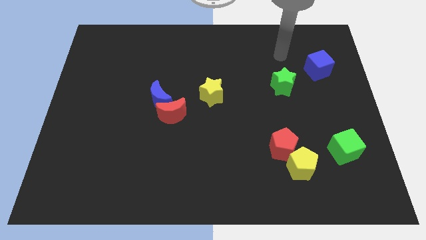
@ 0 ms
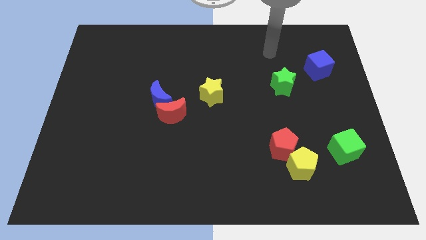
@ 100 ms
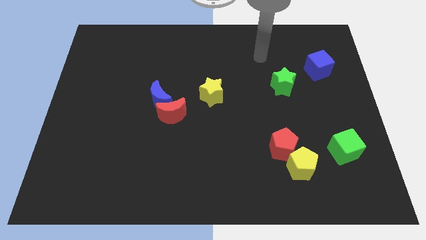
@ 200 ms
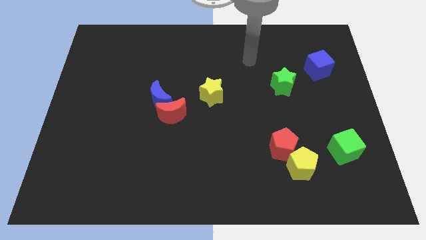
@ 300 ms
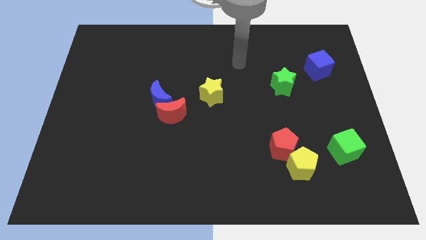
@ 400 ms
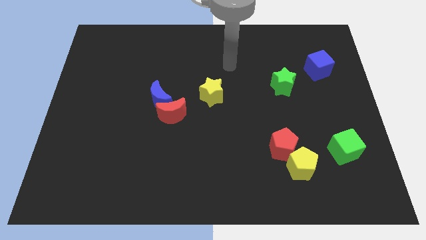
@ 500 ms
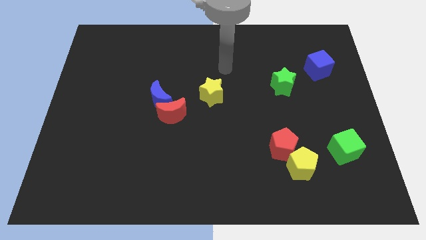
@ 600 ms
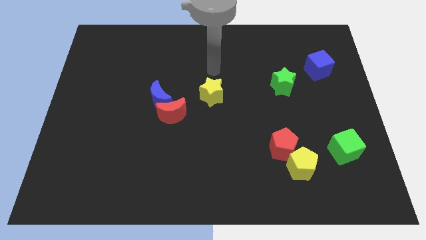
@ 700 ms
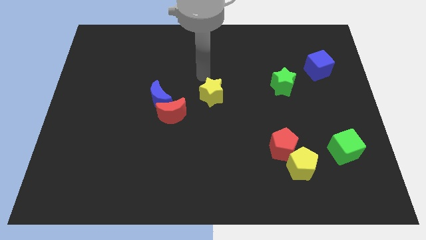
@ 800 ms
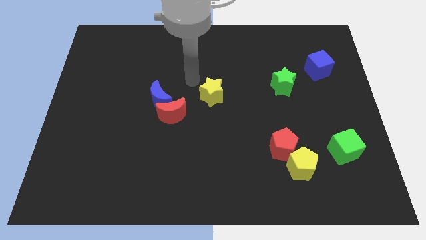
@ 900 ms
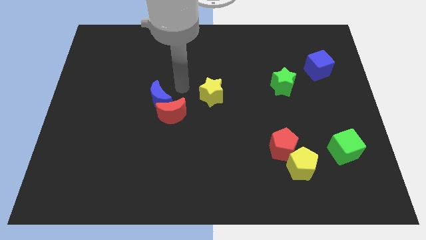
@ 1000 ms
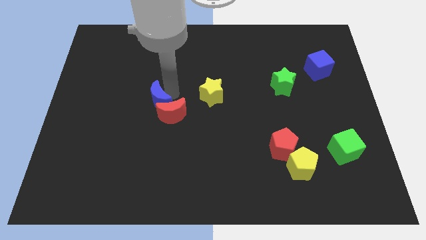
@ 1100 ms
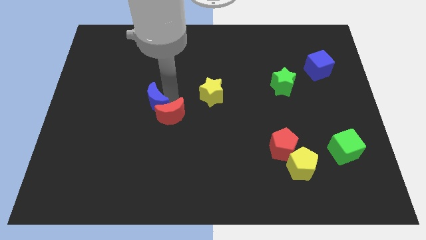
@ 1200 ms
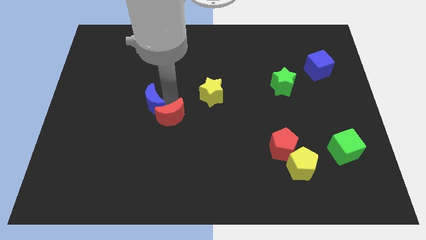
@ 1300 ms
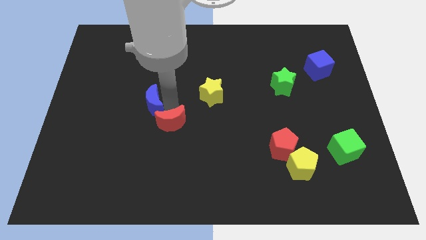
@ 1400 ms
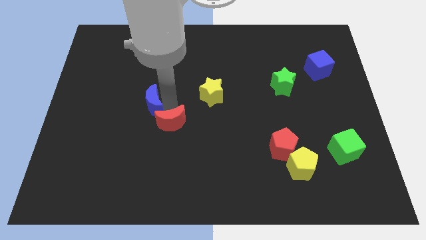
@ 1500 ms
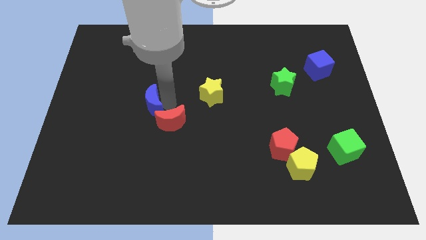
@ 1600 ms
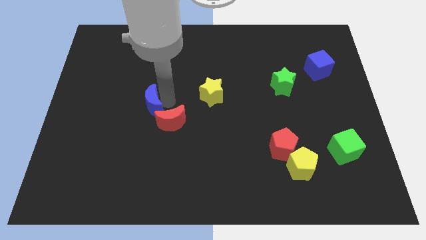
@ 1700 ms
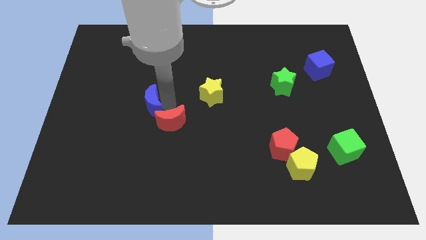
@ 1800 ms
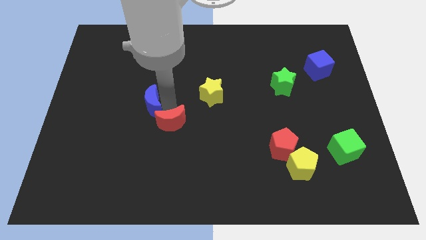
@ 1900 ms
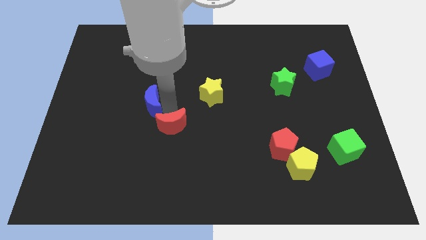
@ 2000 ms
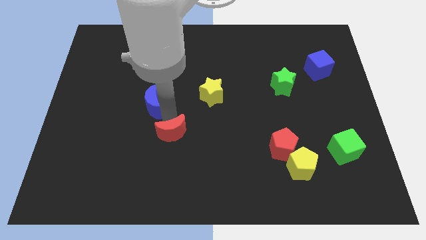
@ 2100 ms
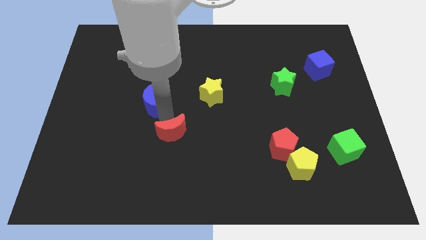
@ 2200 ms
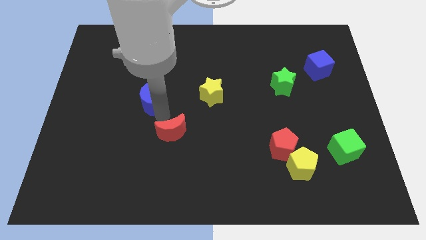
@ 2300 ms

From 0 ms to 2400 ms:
move the red moon away from the blue moon

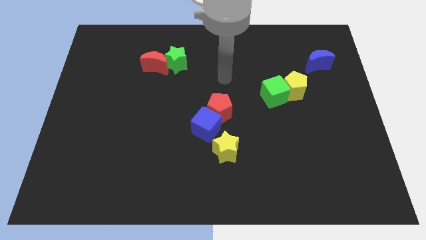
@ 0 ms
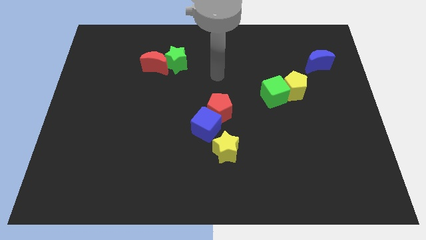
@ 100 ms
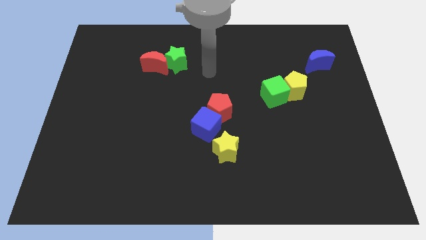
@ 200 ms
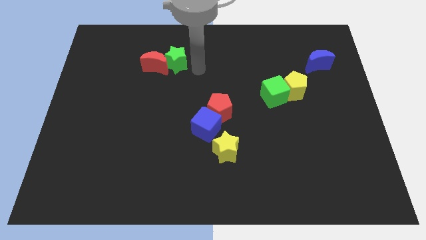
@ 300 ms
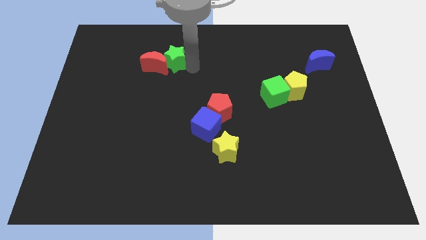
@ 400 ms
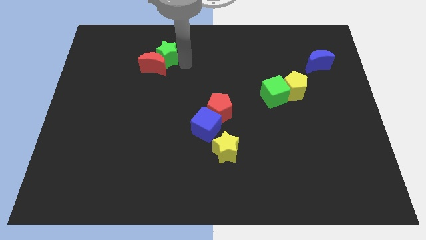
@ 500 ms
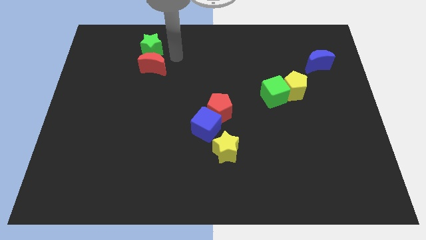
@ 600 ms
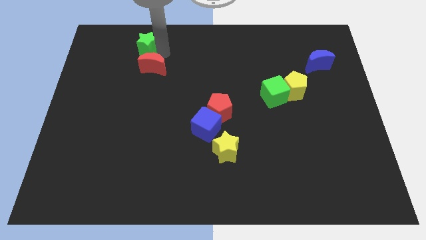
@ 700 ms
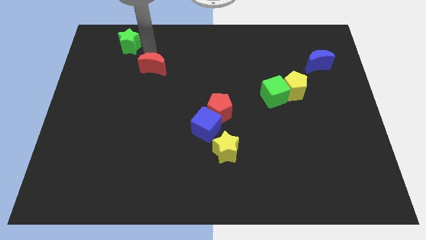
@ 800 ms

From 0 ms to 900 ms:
separate the red moon from the green star

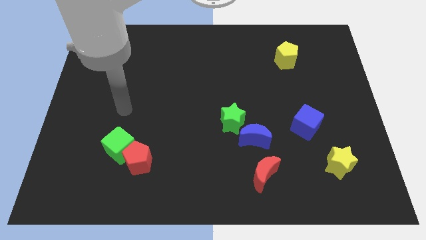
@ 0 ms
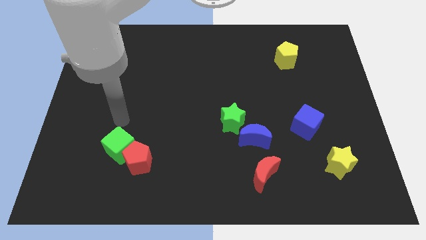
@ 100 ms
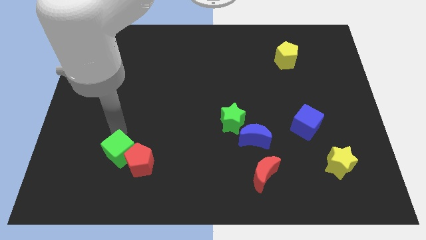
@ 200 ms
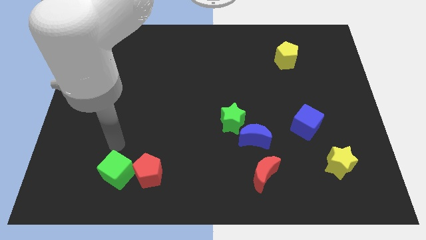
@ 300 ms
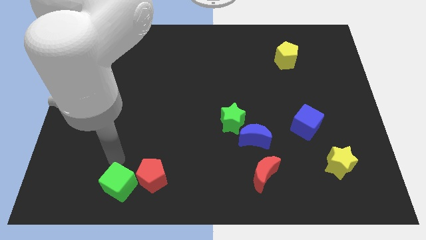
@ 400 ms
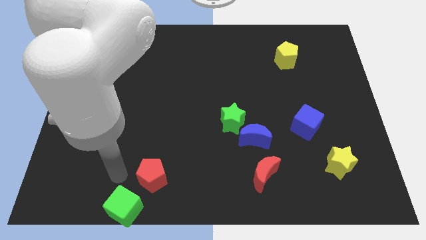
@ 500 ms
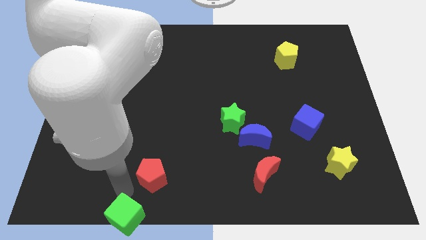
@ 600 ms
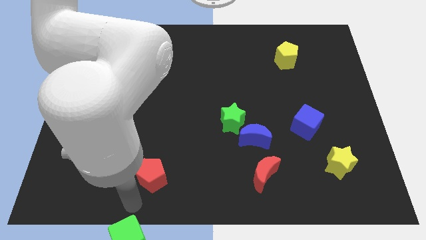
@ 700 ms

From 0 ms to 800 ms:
pull the red pentagon apart from the green cube

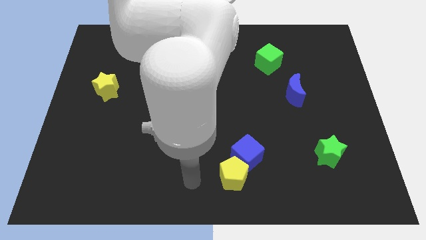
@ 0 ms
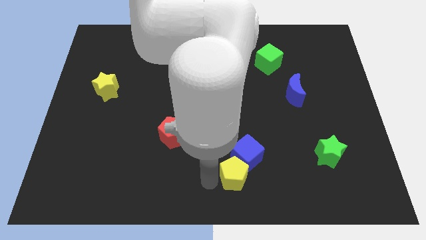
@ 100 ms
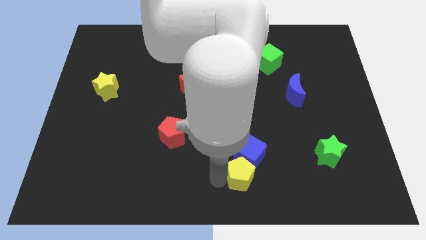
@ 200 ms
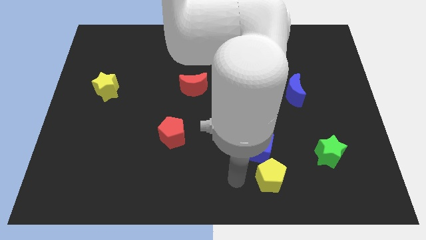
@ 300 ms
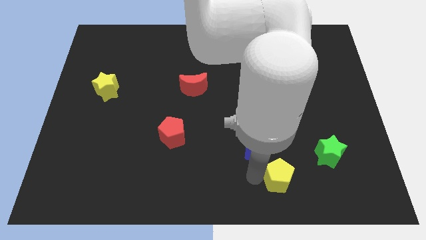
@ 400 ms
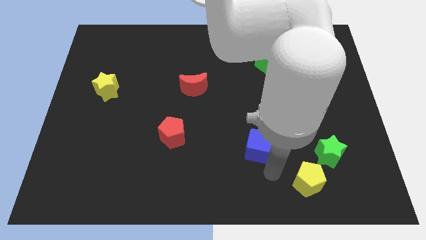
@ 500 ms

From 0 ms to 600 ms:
separate the blue cube from the yellow pentagon

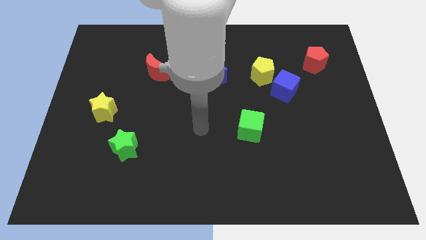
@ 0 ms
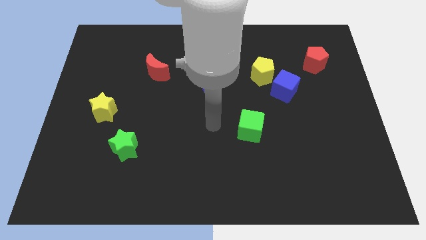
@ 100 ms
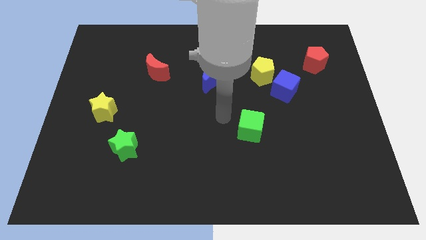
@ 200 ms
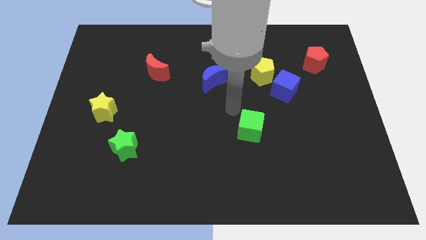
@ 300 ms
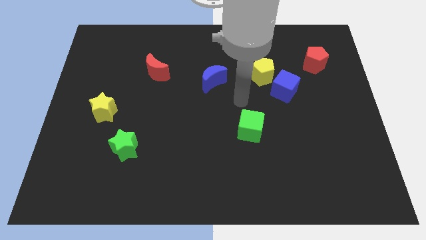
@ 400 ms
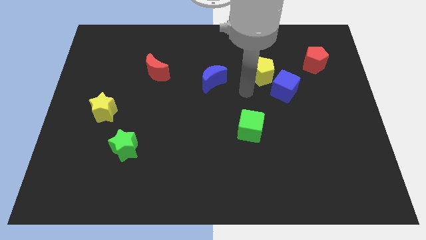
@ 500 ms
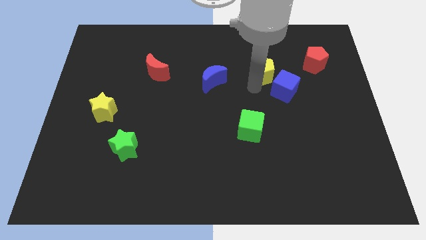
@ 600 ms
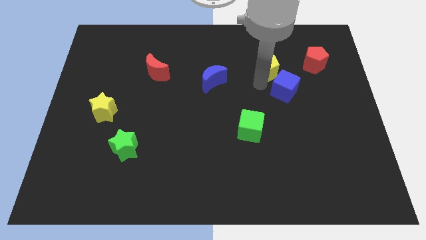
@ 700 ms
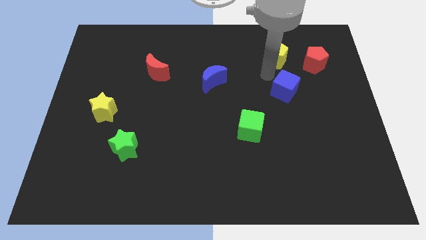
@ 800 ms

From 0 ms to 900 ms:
move the blue cube away from the yellow pentagon

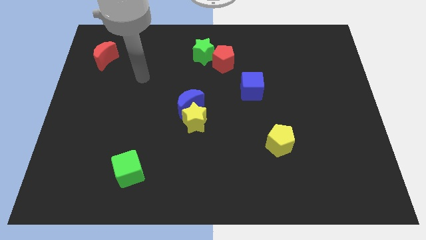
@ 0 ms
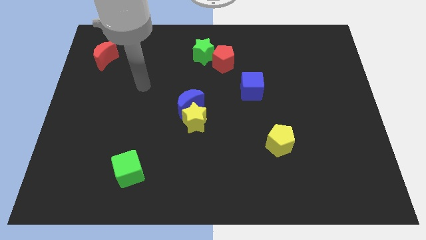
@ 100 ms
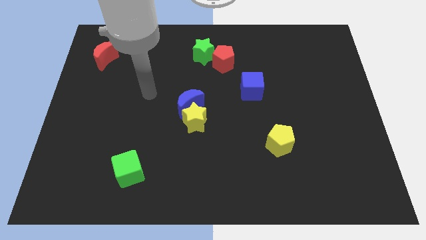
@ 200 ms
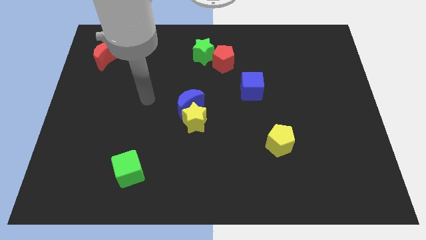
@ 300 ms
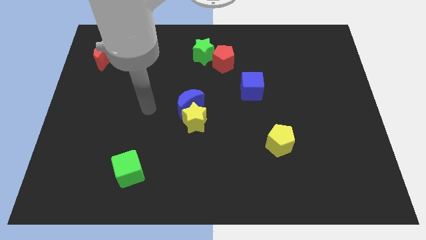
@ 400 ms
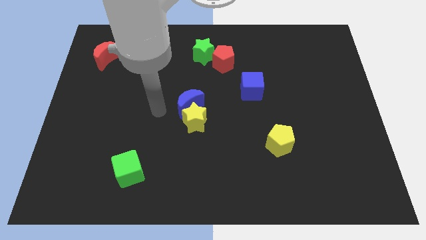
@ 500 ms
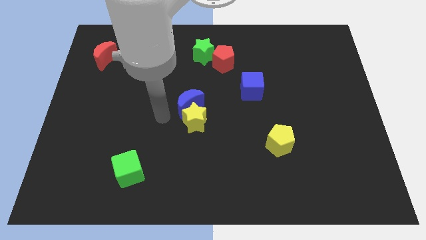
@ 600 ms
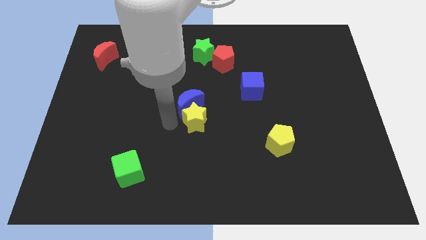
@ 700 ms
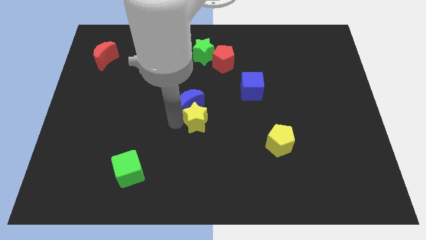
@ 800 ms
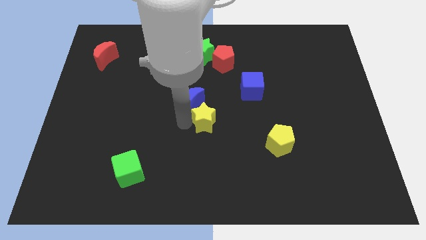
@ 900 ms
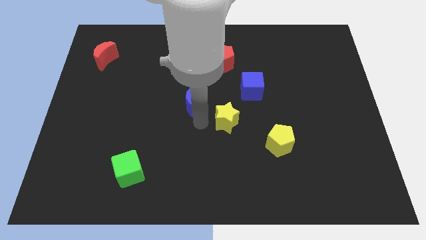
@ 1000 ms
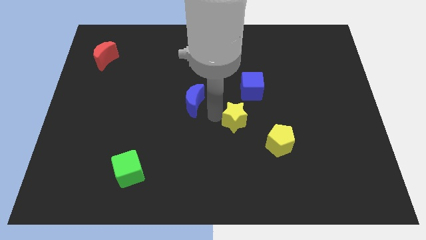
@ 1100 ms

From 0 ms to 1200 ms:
pull the blue moon apart from the yellow star

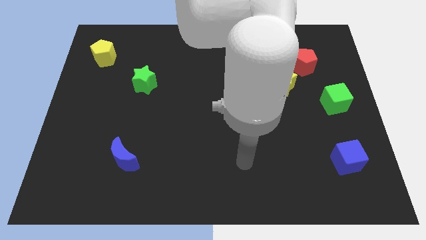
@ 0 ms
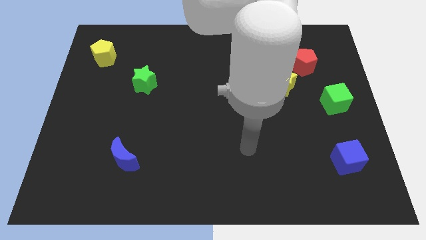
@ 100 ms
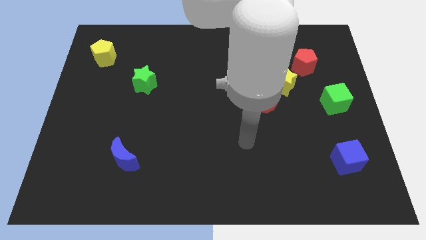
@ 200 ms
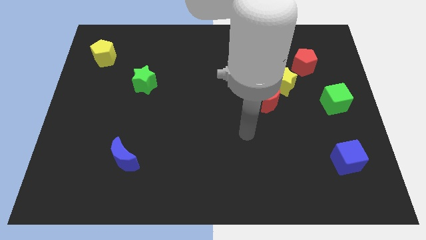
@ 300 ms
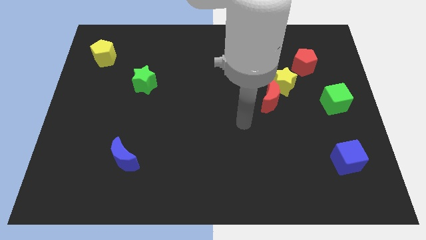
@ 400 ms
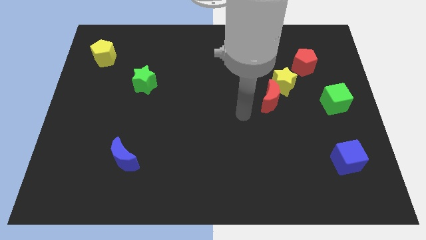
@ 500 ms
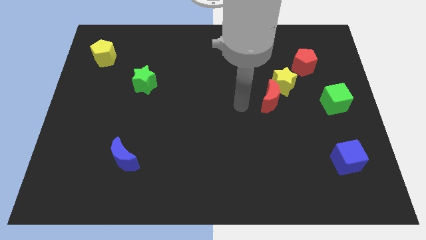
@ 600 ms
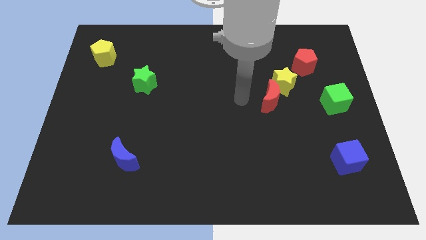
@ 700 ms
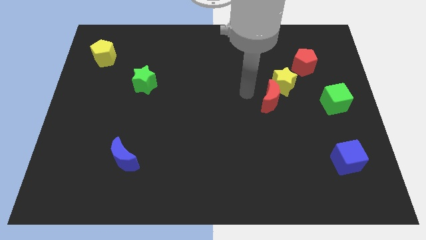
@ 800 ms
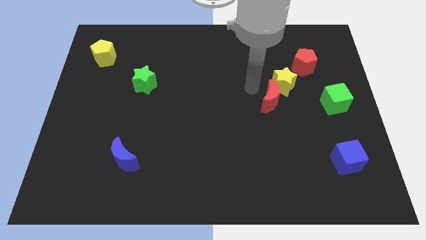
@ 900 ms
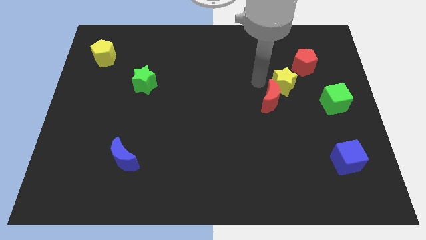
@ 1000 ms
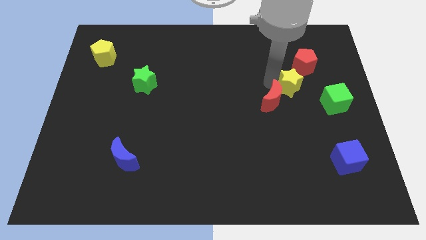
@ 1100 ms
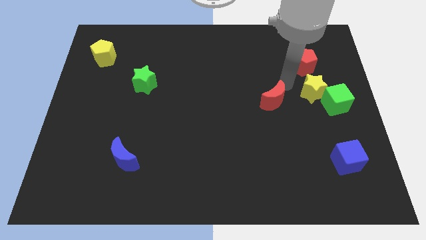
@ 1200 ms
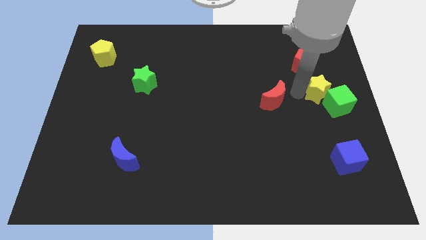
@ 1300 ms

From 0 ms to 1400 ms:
move the red moon away from the yellow star

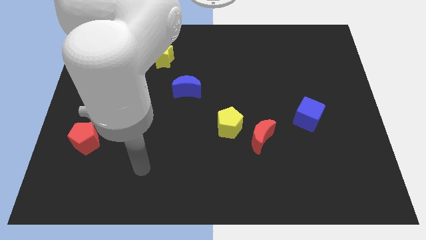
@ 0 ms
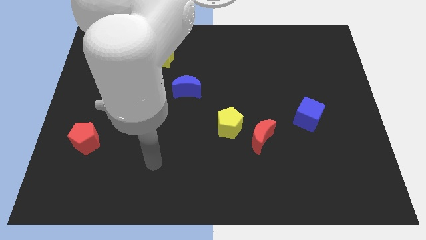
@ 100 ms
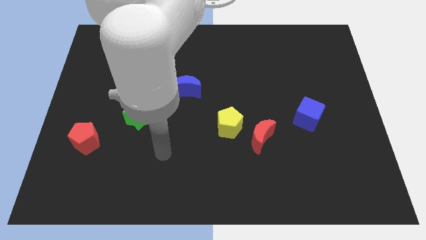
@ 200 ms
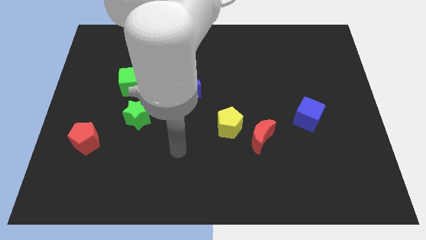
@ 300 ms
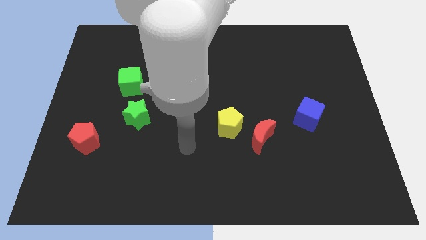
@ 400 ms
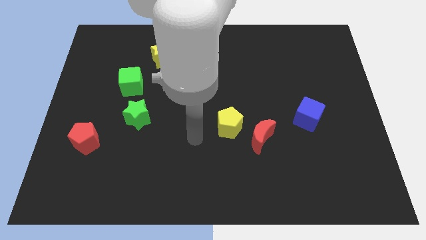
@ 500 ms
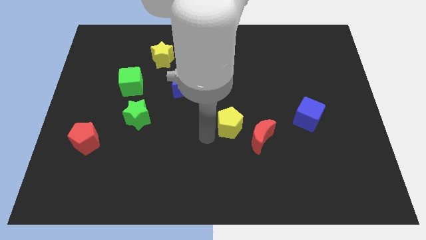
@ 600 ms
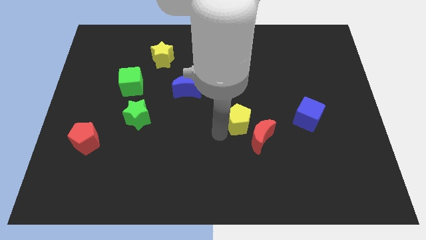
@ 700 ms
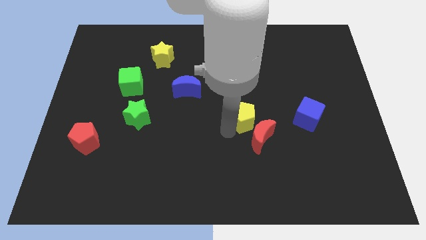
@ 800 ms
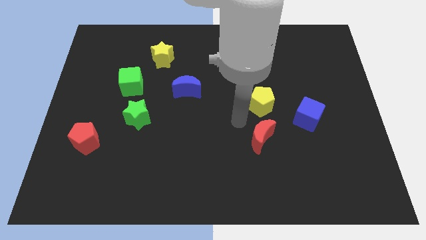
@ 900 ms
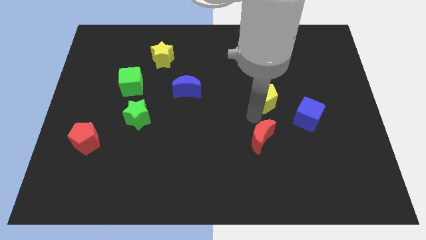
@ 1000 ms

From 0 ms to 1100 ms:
pull the red moon apart from the yellow pentagon
